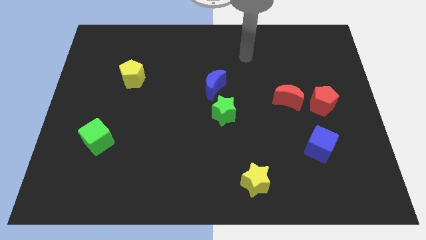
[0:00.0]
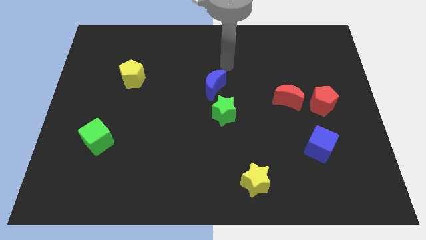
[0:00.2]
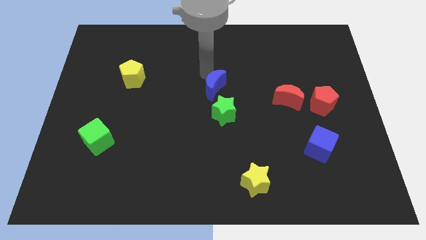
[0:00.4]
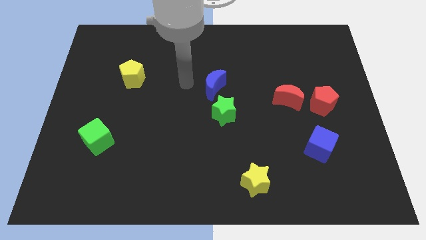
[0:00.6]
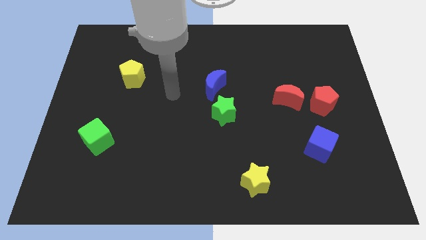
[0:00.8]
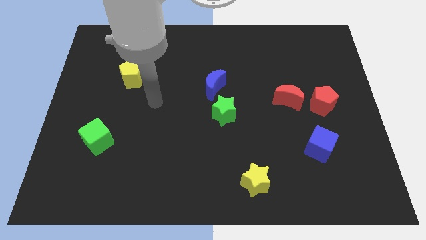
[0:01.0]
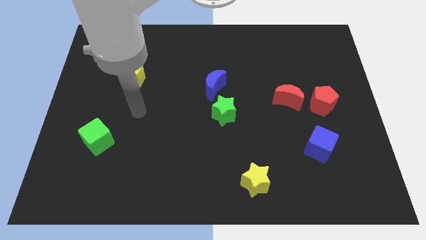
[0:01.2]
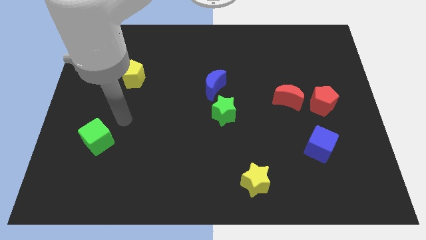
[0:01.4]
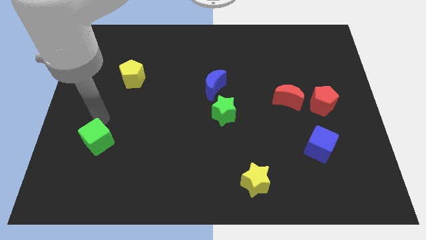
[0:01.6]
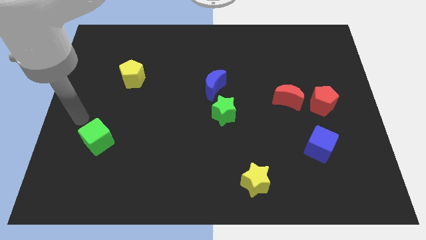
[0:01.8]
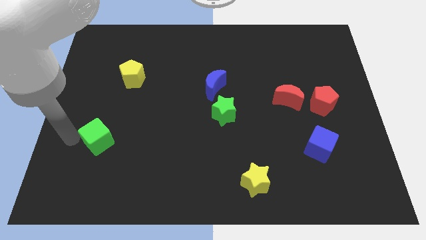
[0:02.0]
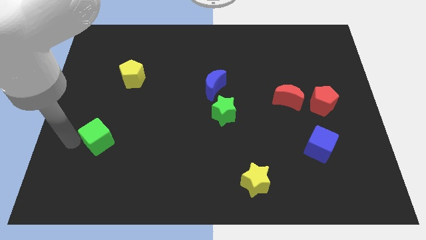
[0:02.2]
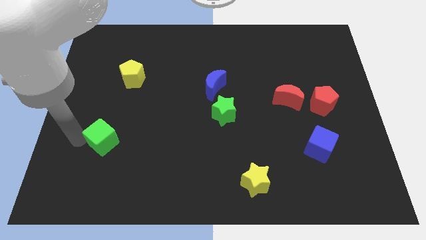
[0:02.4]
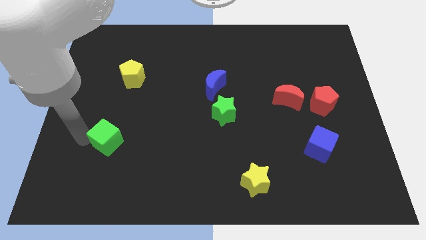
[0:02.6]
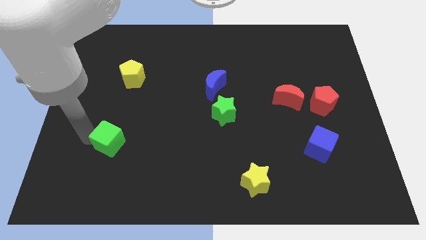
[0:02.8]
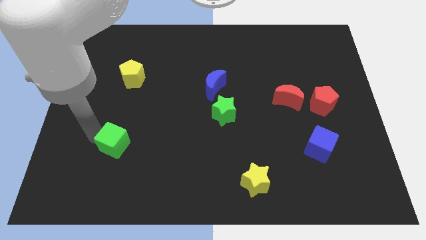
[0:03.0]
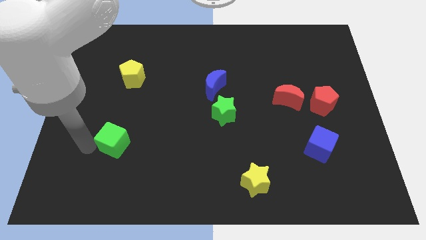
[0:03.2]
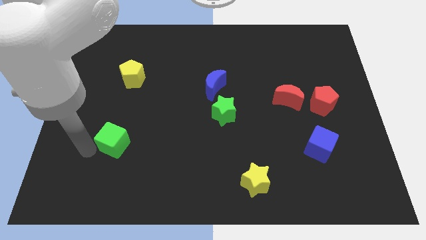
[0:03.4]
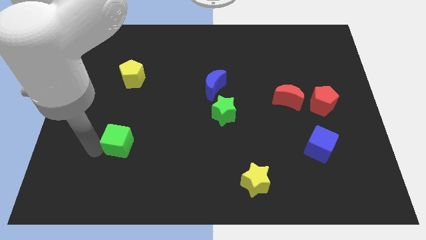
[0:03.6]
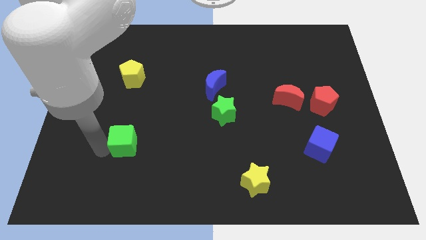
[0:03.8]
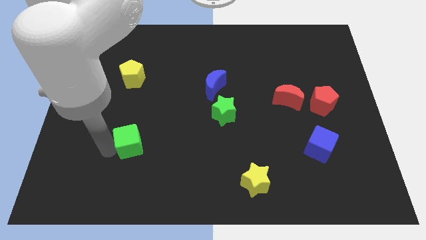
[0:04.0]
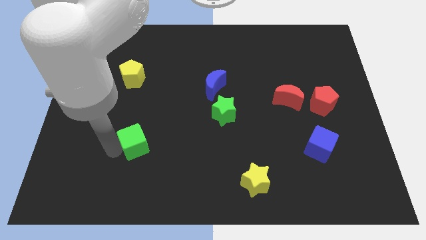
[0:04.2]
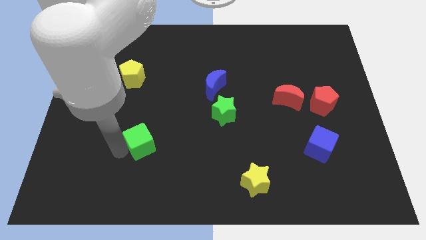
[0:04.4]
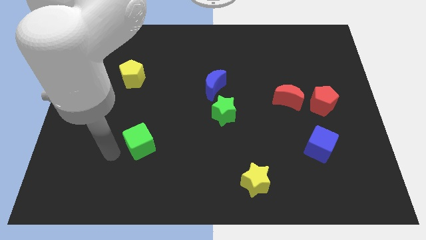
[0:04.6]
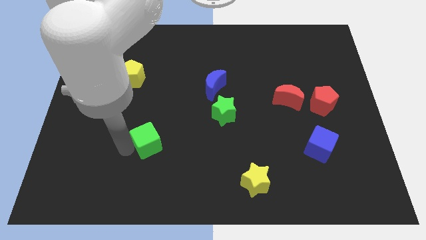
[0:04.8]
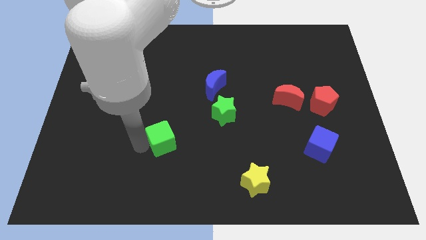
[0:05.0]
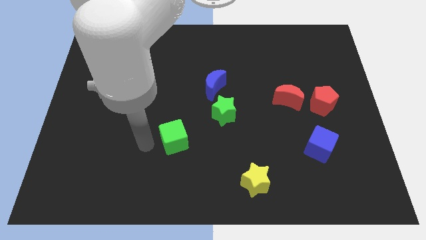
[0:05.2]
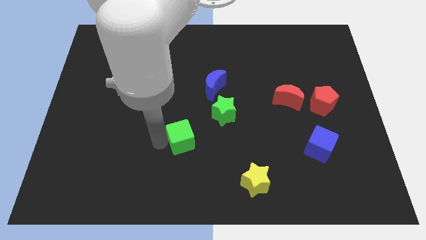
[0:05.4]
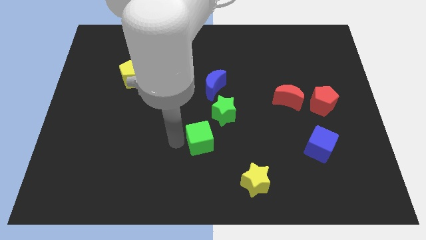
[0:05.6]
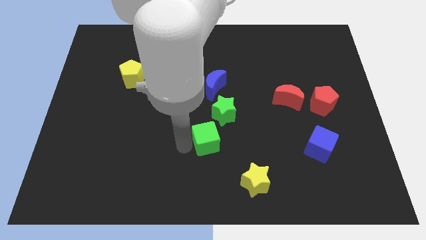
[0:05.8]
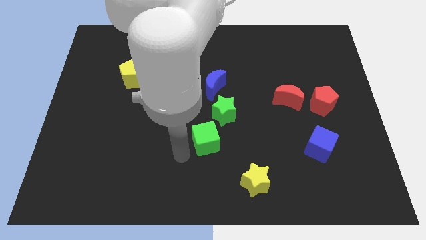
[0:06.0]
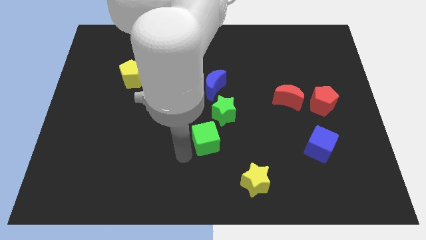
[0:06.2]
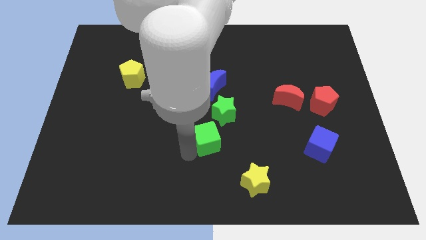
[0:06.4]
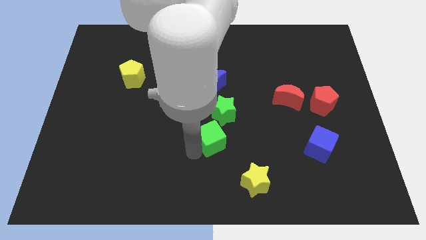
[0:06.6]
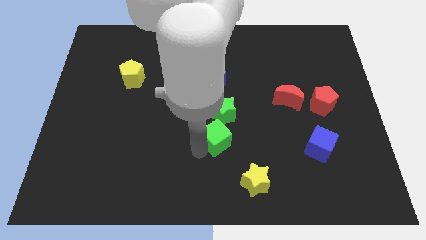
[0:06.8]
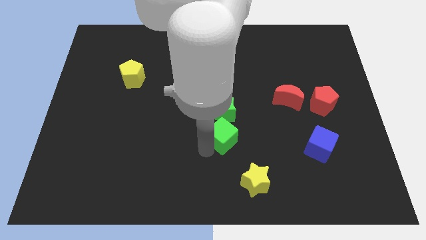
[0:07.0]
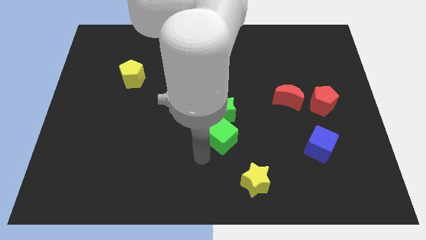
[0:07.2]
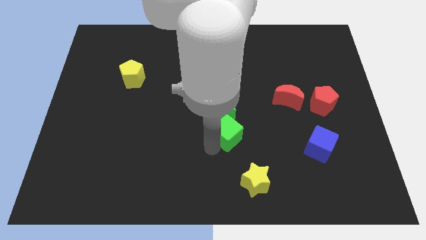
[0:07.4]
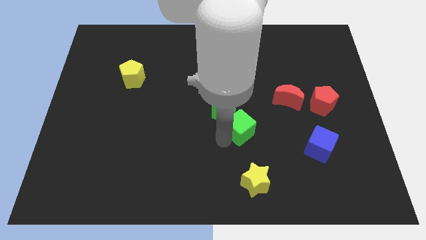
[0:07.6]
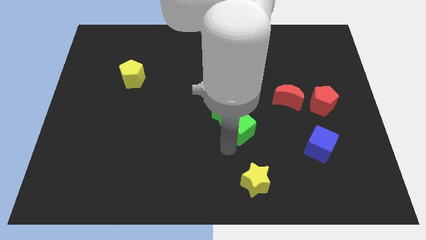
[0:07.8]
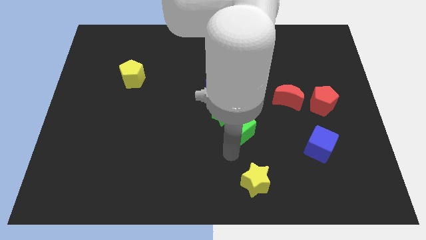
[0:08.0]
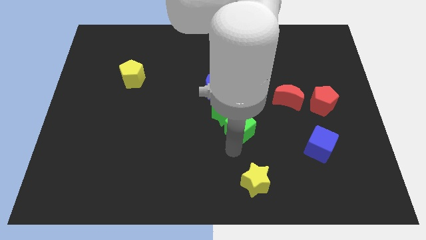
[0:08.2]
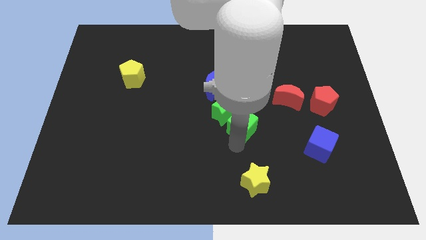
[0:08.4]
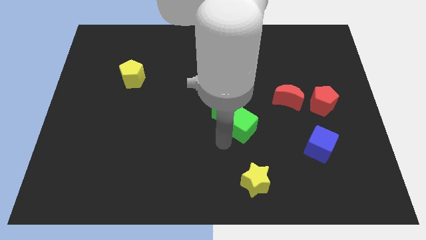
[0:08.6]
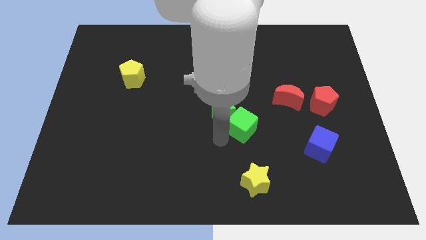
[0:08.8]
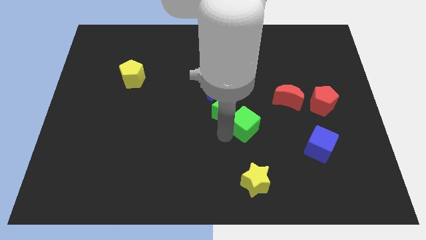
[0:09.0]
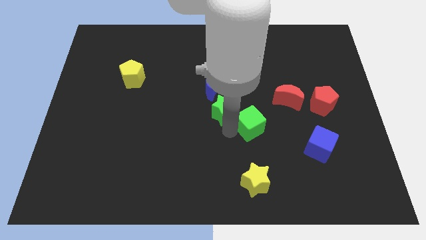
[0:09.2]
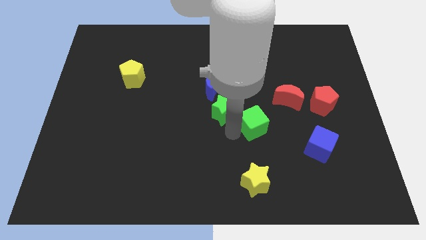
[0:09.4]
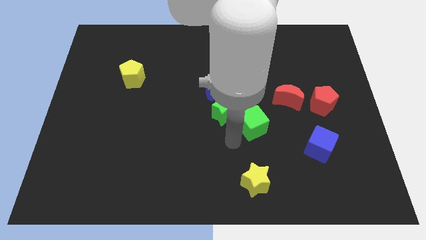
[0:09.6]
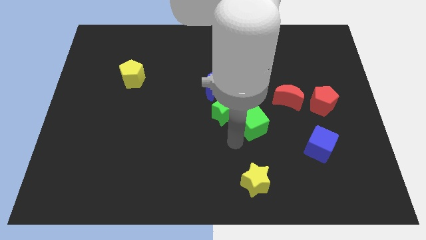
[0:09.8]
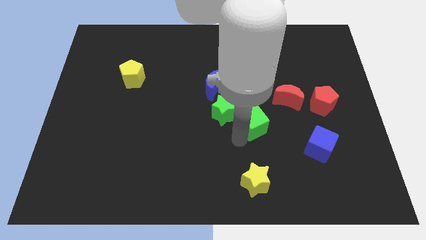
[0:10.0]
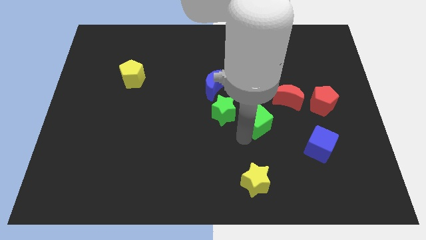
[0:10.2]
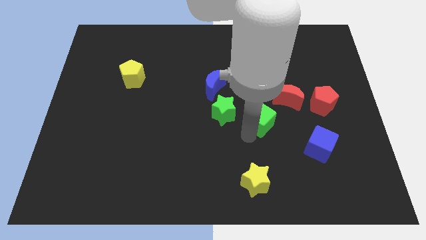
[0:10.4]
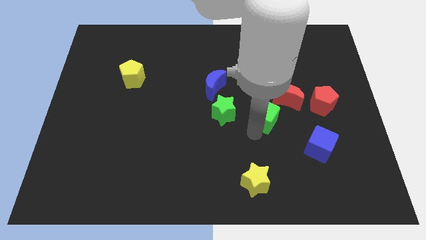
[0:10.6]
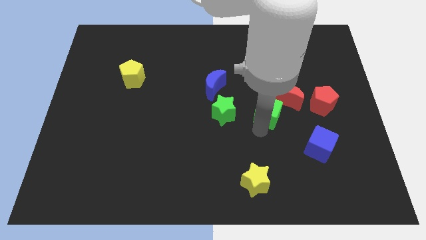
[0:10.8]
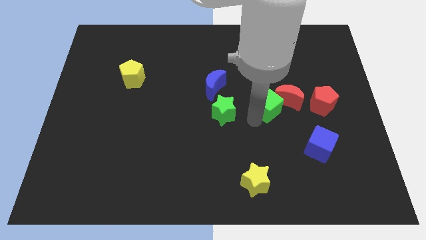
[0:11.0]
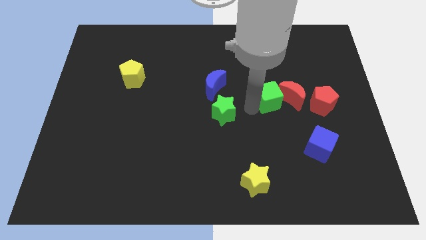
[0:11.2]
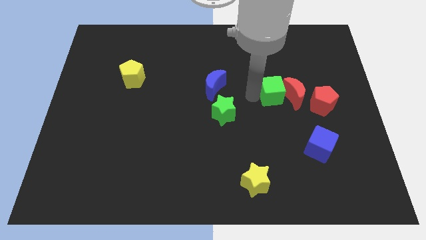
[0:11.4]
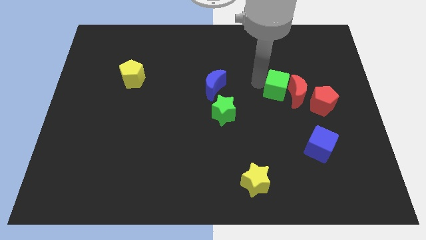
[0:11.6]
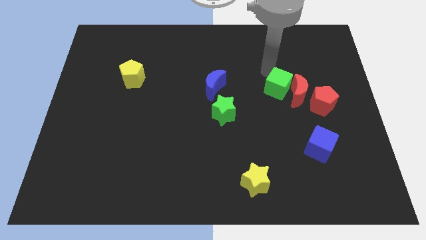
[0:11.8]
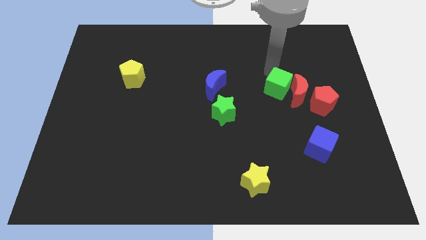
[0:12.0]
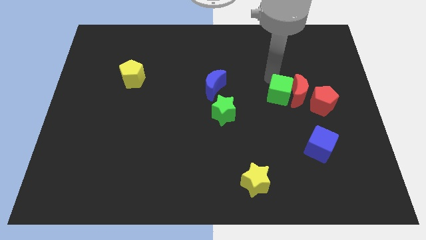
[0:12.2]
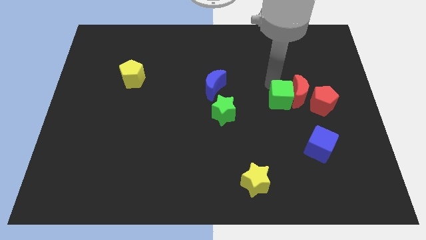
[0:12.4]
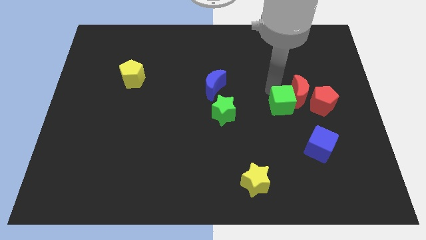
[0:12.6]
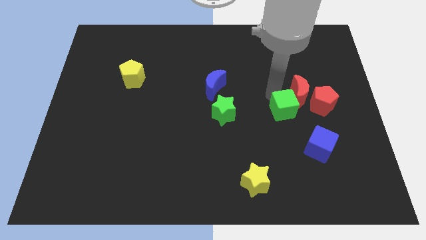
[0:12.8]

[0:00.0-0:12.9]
push the green cube to the top left of the blue cube

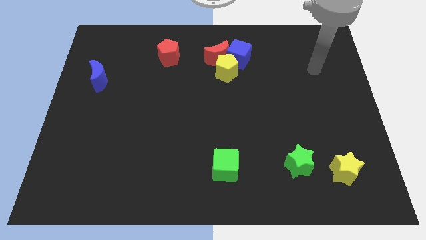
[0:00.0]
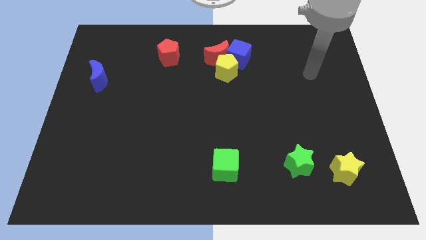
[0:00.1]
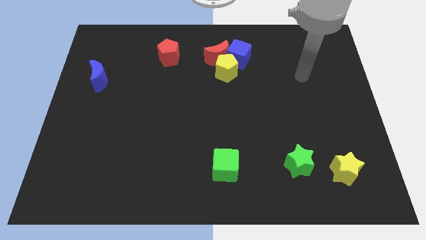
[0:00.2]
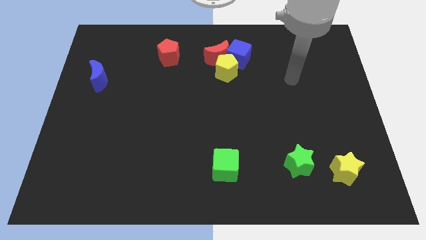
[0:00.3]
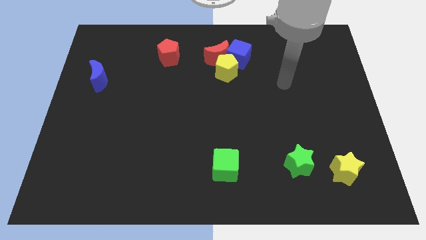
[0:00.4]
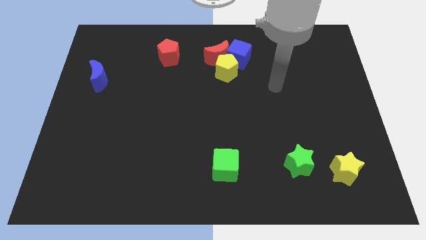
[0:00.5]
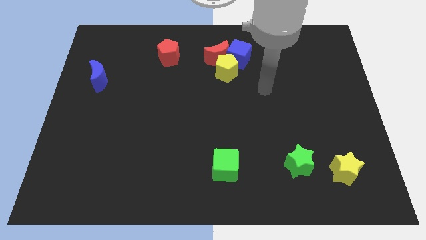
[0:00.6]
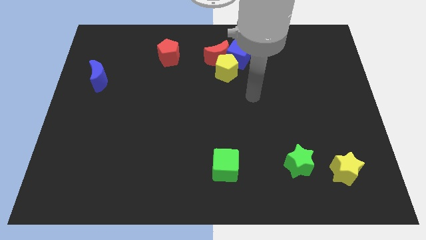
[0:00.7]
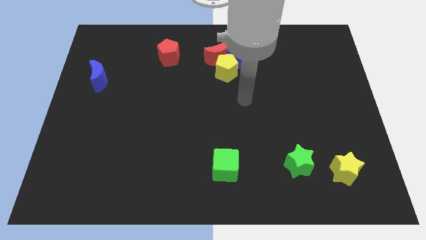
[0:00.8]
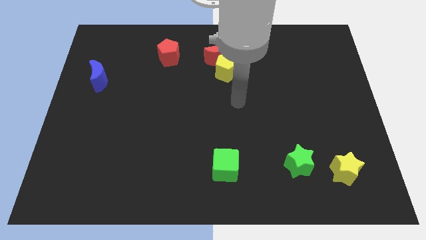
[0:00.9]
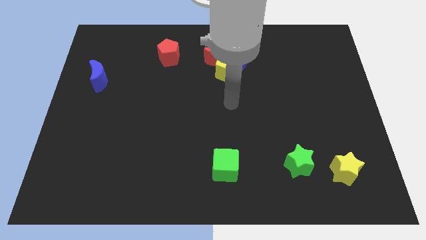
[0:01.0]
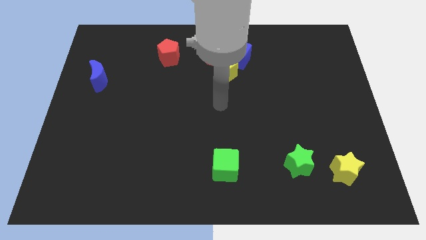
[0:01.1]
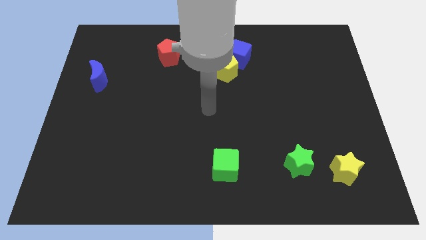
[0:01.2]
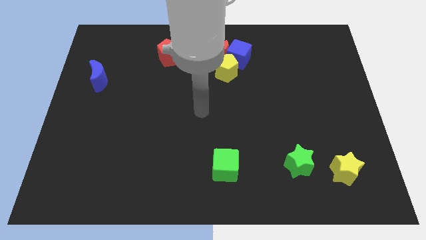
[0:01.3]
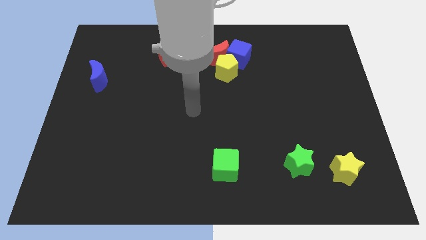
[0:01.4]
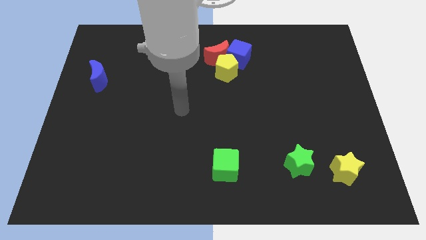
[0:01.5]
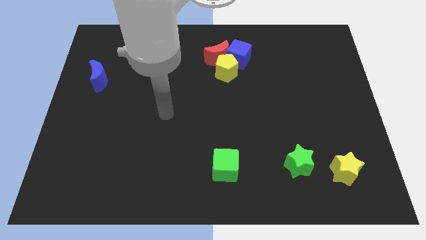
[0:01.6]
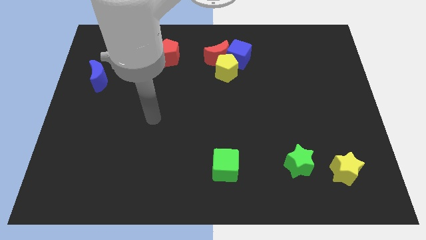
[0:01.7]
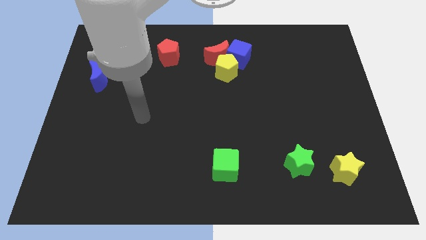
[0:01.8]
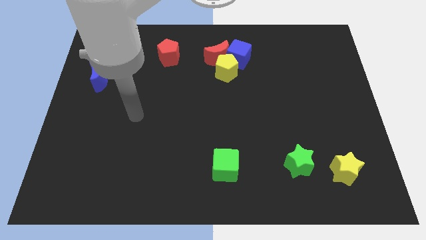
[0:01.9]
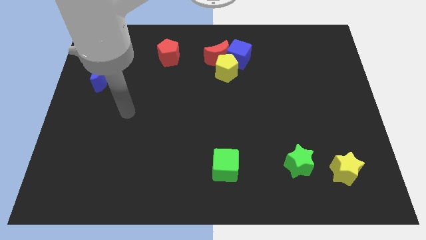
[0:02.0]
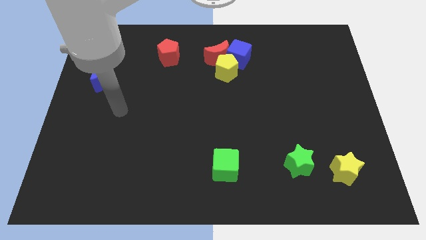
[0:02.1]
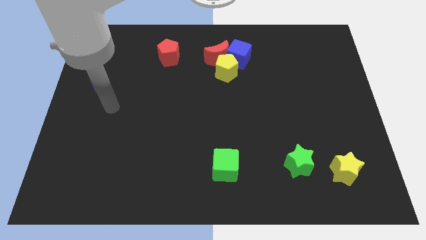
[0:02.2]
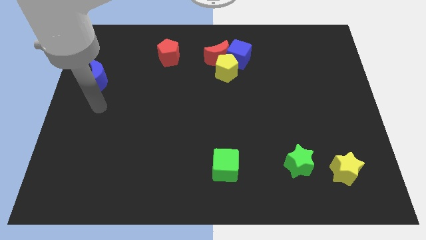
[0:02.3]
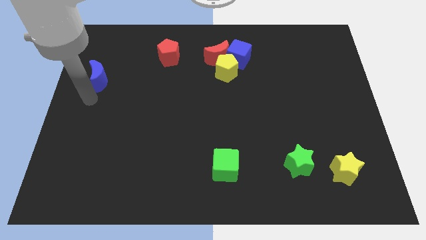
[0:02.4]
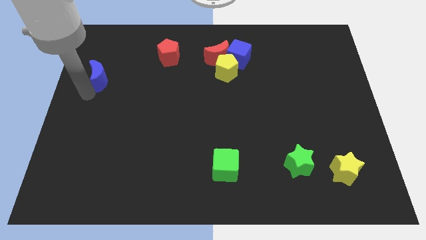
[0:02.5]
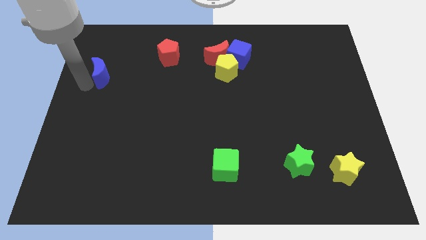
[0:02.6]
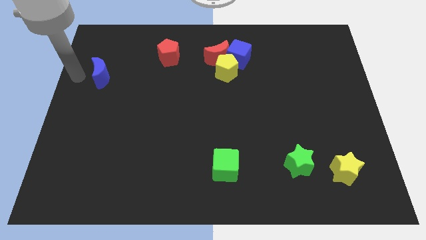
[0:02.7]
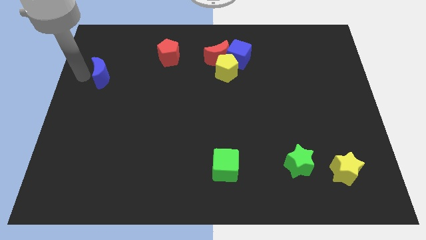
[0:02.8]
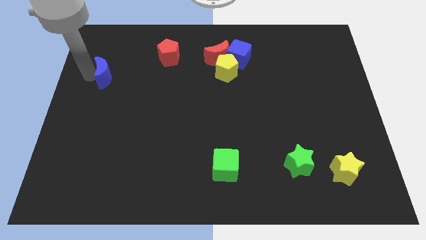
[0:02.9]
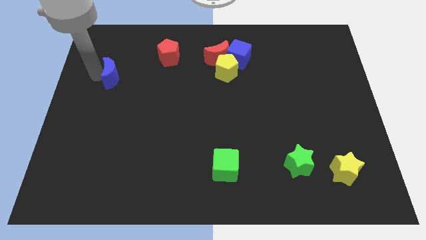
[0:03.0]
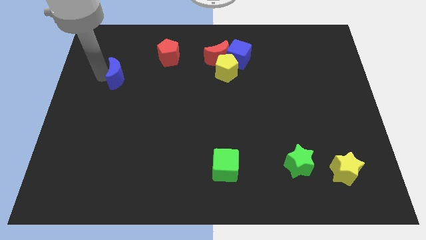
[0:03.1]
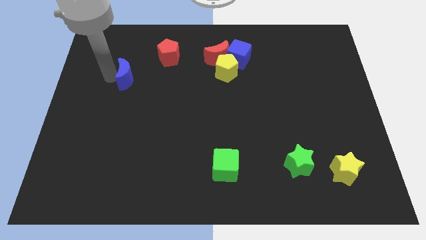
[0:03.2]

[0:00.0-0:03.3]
move the blue moon diagonally down and to the left of the red pentagon
